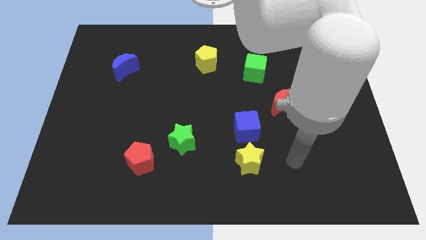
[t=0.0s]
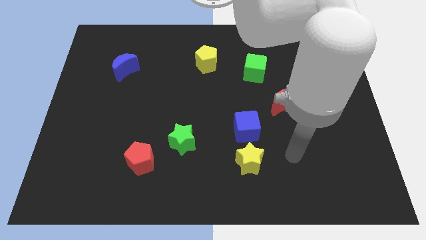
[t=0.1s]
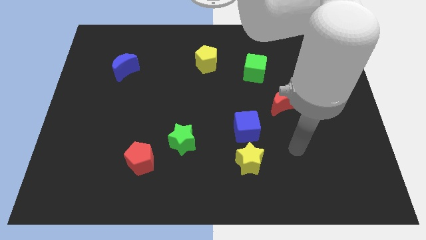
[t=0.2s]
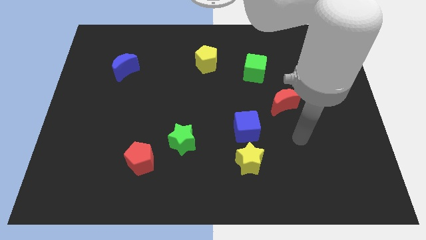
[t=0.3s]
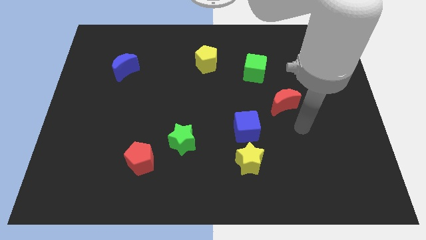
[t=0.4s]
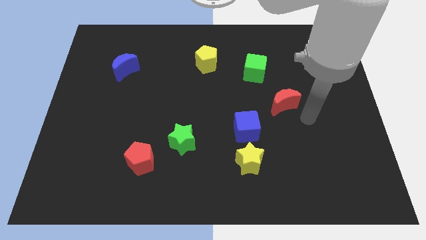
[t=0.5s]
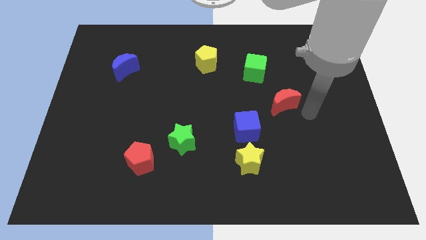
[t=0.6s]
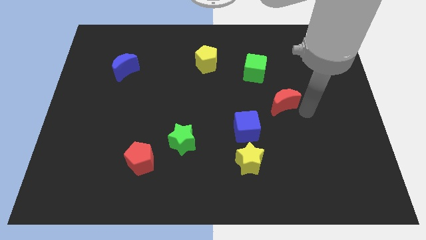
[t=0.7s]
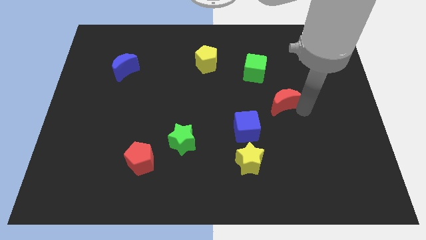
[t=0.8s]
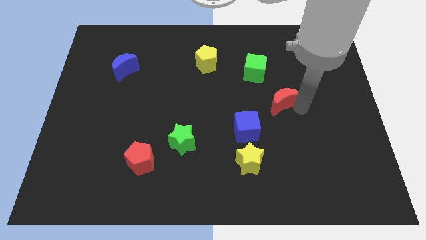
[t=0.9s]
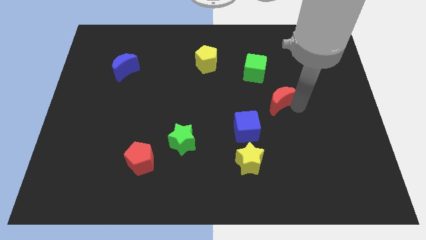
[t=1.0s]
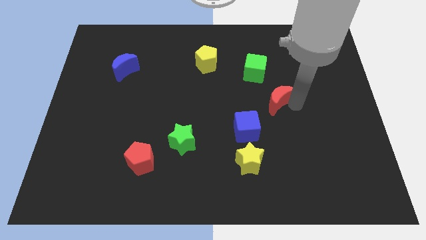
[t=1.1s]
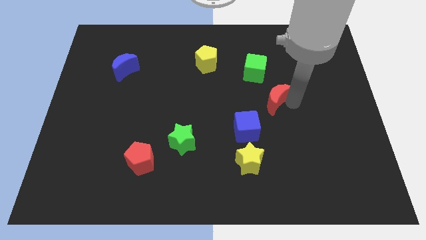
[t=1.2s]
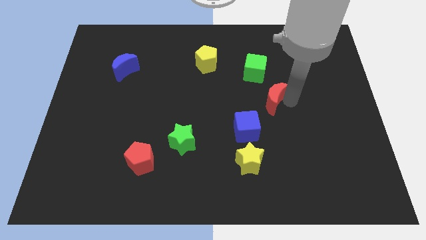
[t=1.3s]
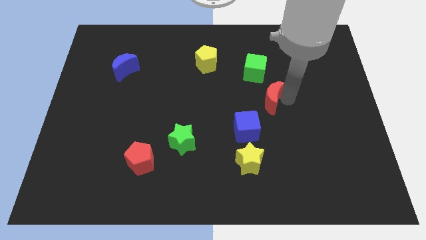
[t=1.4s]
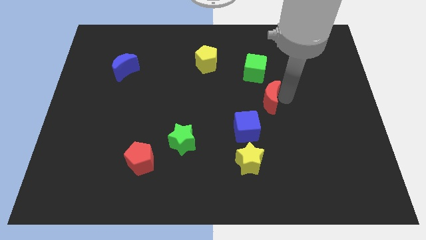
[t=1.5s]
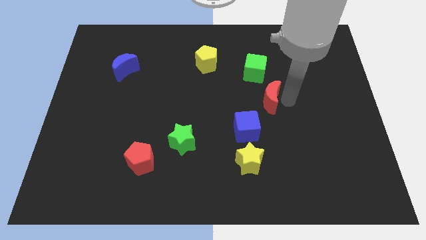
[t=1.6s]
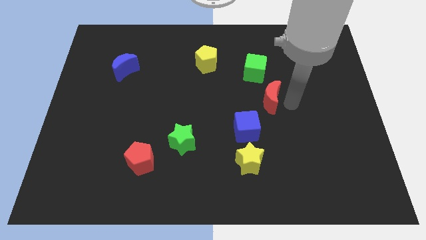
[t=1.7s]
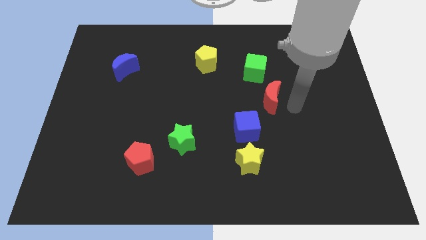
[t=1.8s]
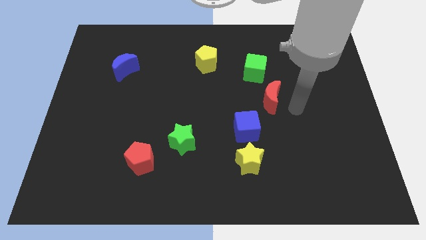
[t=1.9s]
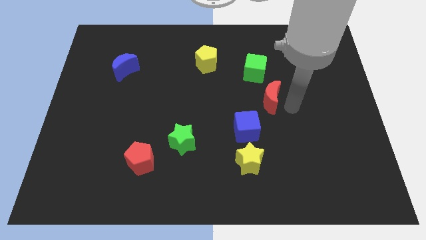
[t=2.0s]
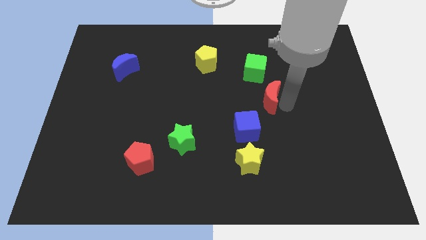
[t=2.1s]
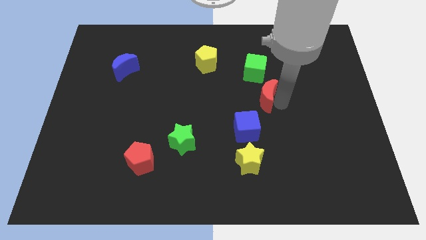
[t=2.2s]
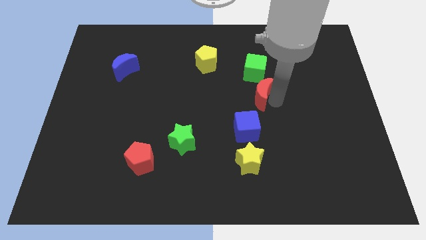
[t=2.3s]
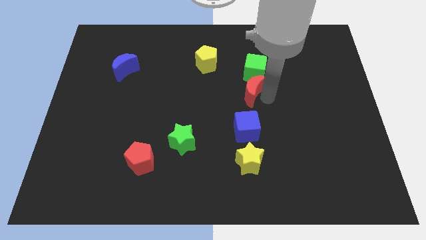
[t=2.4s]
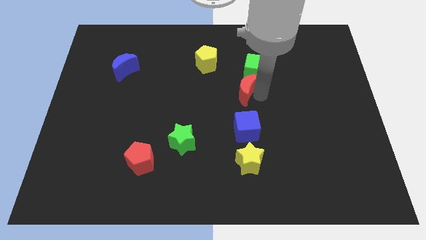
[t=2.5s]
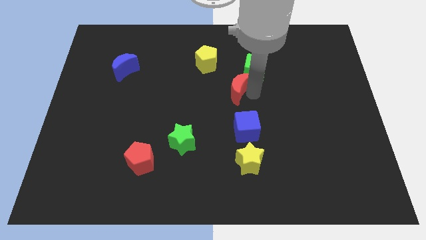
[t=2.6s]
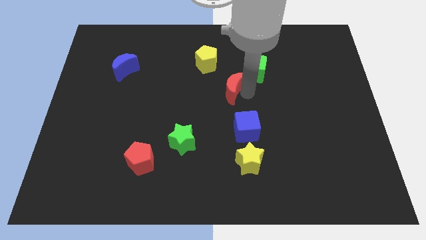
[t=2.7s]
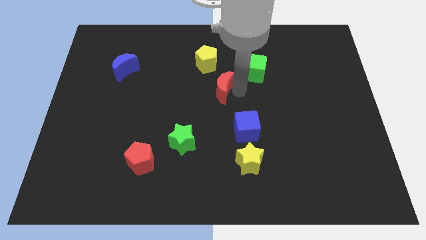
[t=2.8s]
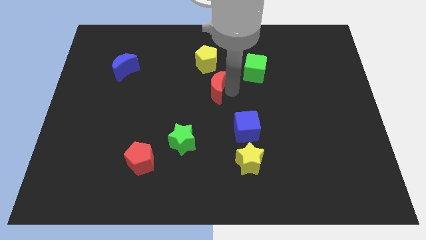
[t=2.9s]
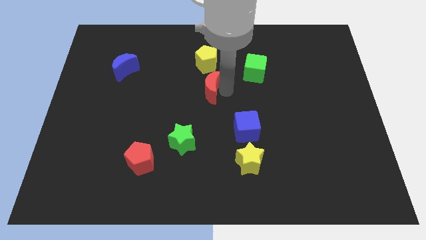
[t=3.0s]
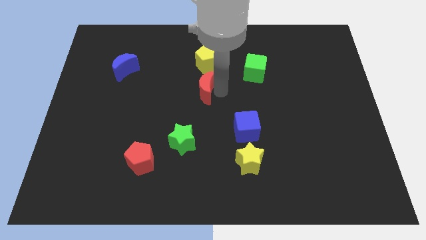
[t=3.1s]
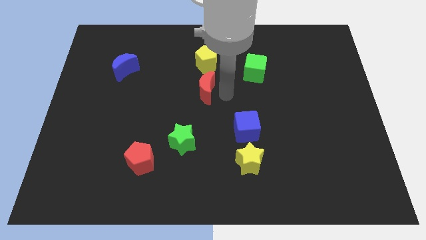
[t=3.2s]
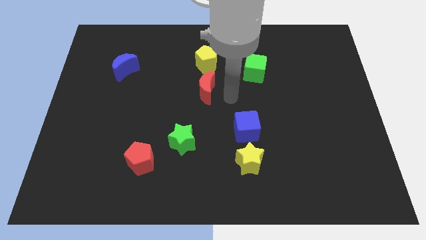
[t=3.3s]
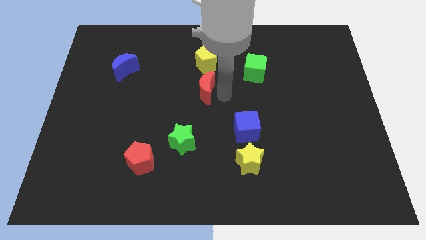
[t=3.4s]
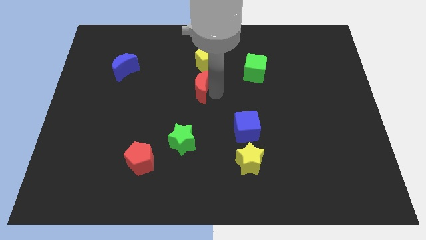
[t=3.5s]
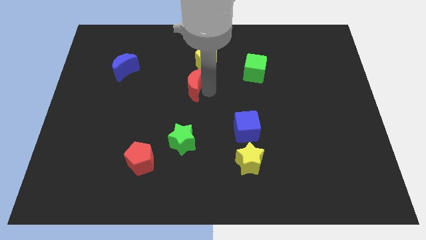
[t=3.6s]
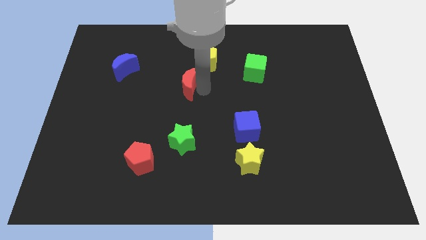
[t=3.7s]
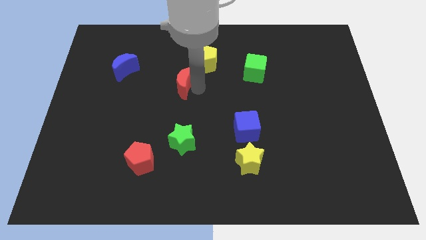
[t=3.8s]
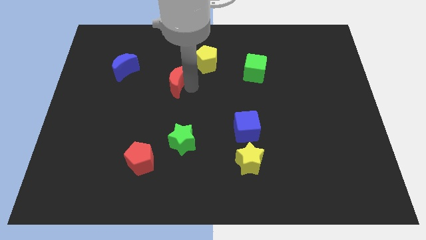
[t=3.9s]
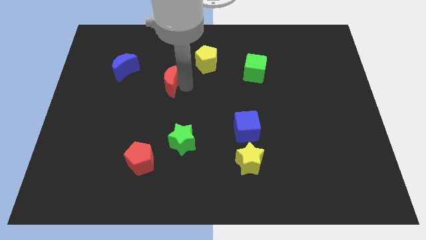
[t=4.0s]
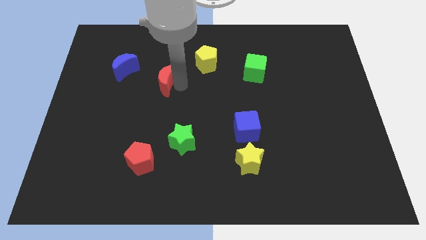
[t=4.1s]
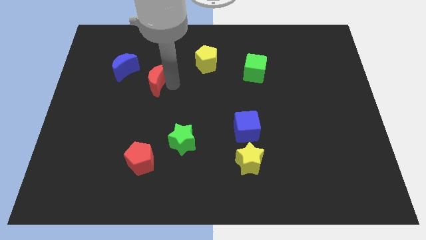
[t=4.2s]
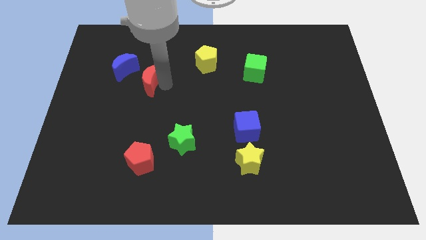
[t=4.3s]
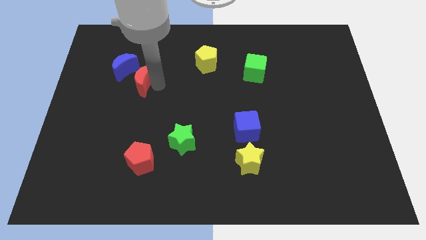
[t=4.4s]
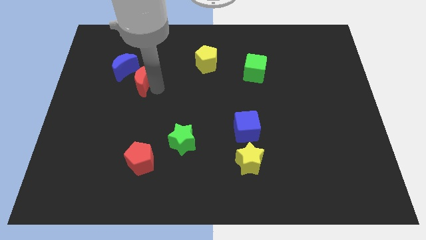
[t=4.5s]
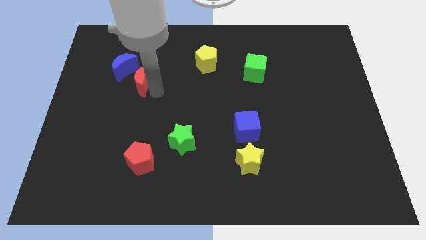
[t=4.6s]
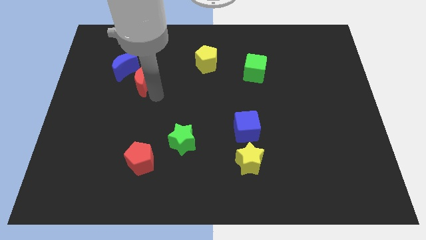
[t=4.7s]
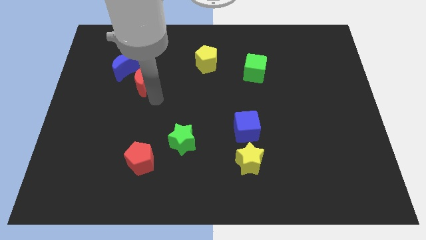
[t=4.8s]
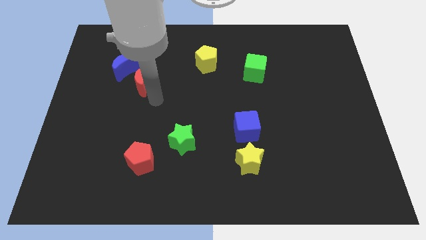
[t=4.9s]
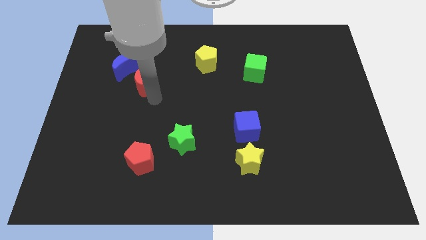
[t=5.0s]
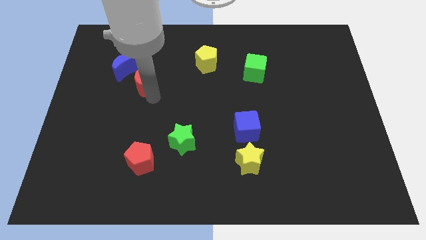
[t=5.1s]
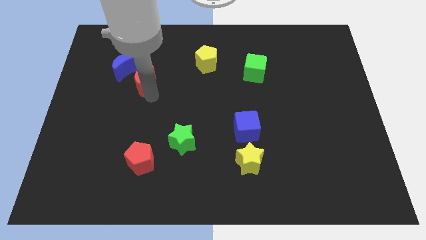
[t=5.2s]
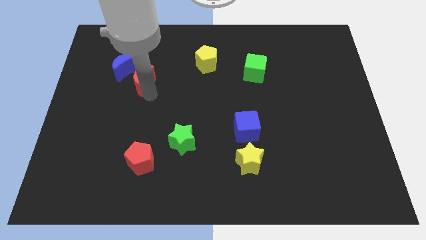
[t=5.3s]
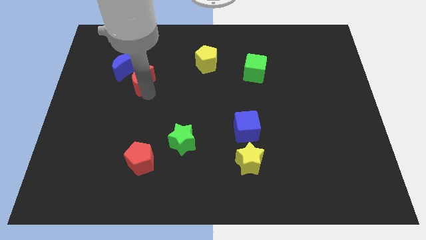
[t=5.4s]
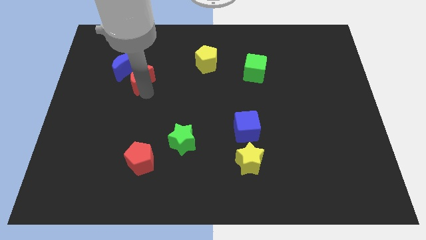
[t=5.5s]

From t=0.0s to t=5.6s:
put the red moon towards the blue moon

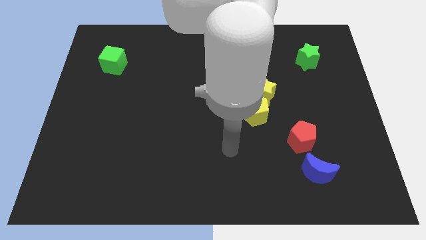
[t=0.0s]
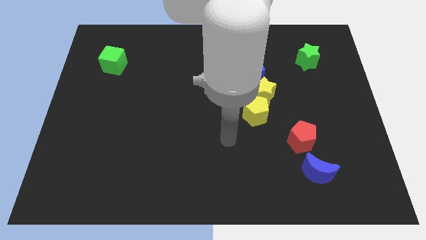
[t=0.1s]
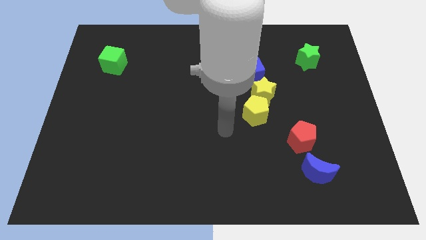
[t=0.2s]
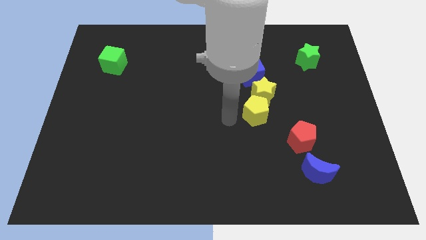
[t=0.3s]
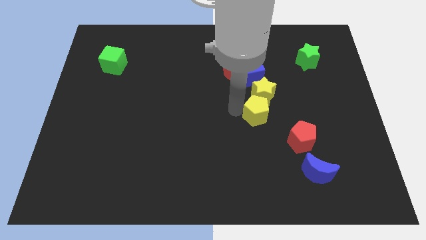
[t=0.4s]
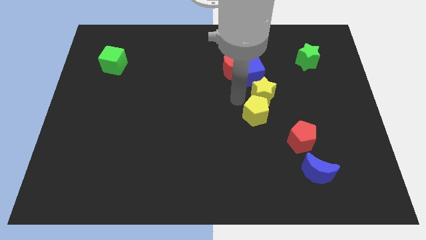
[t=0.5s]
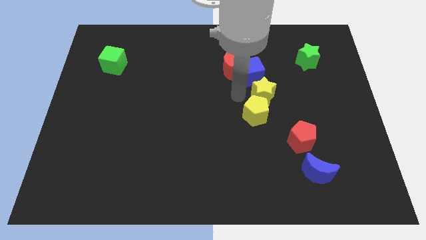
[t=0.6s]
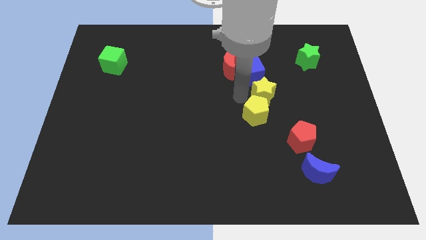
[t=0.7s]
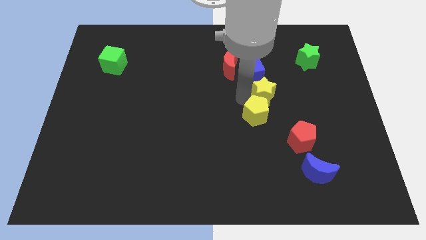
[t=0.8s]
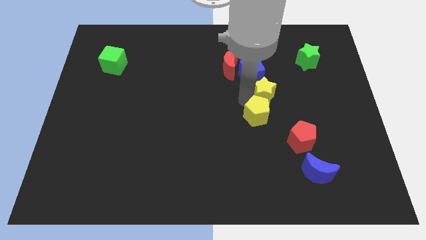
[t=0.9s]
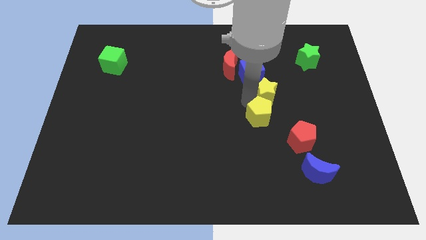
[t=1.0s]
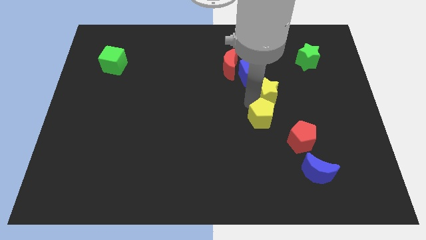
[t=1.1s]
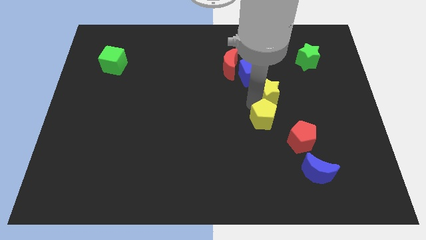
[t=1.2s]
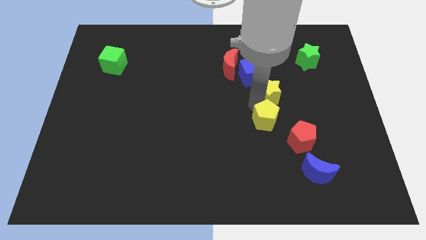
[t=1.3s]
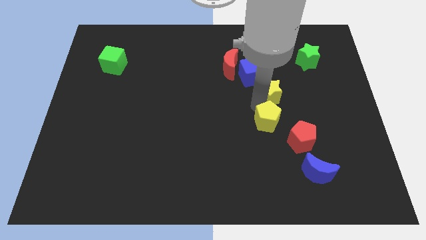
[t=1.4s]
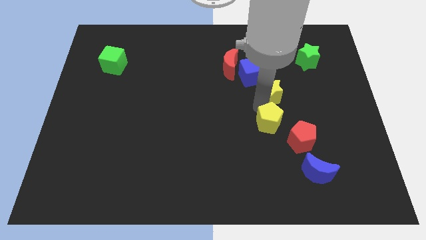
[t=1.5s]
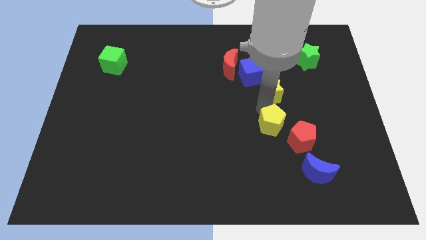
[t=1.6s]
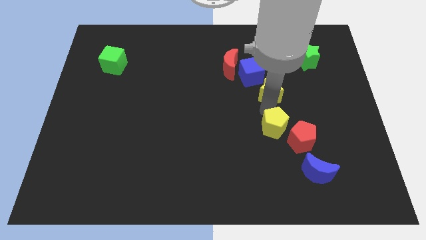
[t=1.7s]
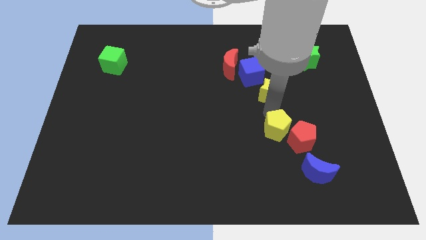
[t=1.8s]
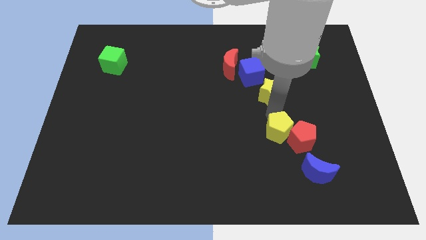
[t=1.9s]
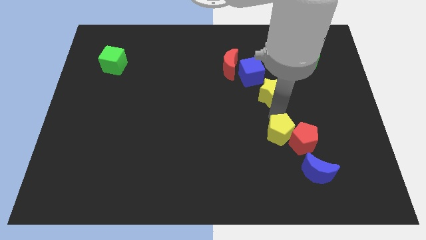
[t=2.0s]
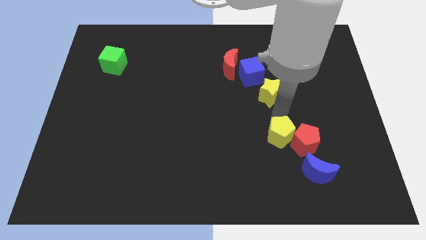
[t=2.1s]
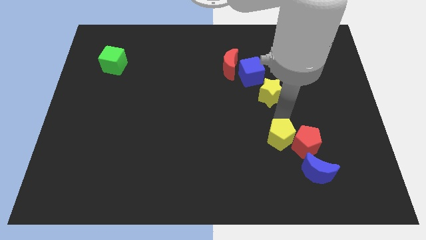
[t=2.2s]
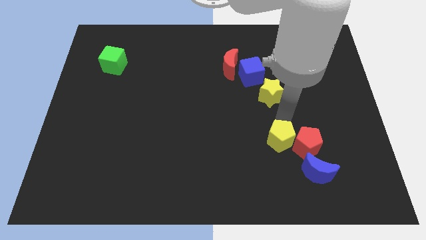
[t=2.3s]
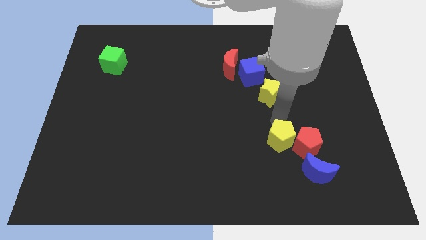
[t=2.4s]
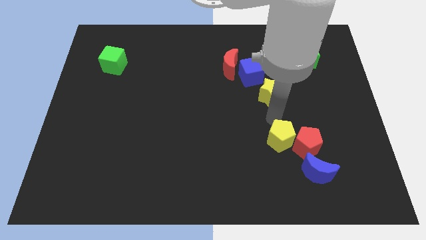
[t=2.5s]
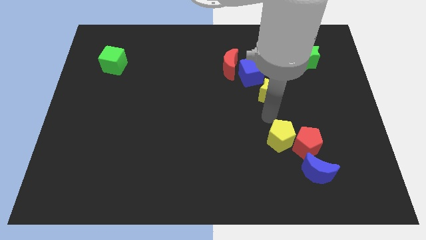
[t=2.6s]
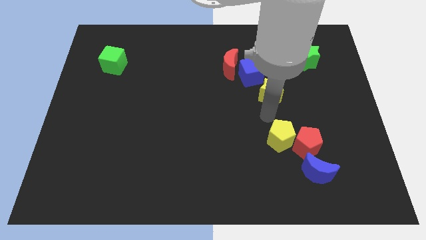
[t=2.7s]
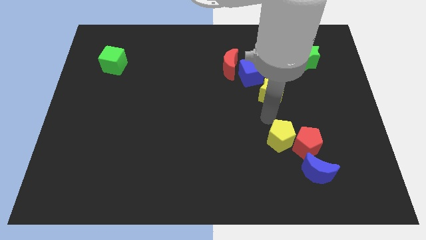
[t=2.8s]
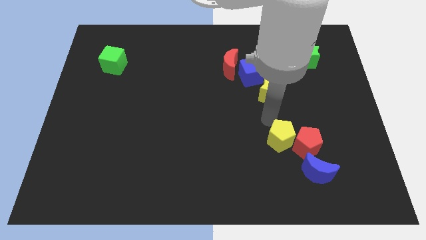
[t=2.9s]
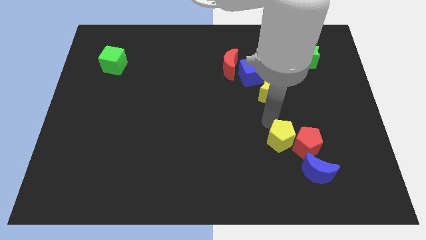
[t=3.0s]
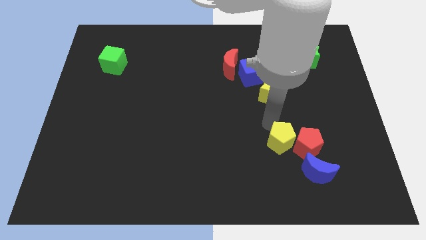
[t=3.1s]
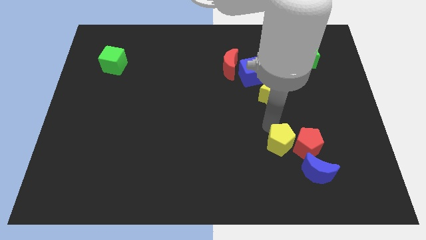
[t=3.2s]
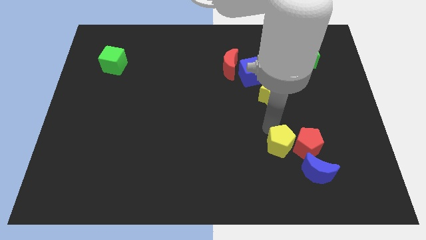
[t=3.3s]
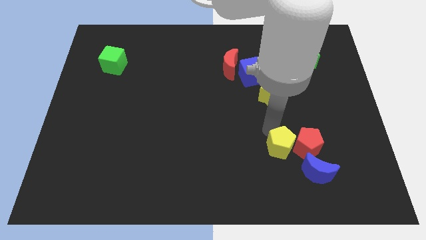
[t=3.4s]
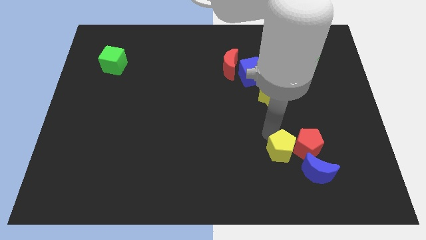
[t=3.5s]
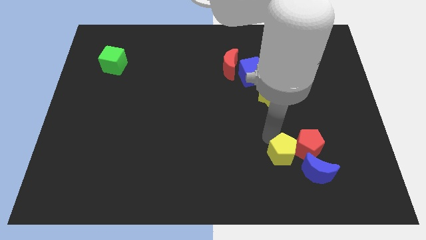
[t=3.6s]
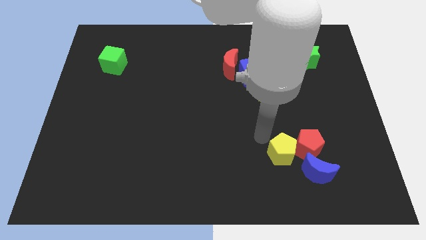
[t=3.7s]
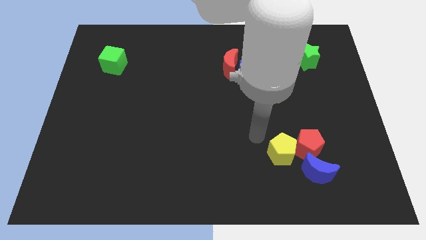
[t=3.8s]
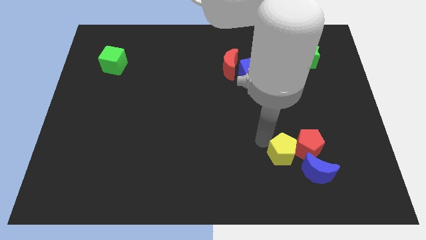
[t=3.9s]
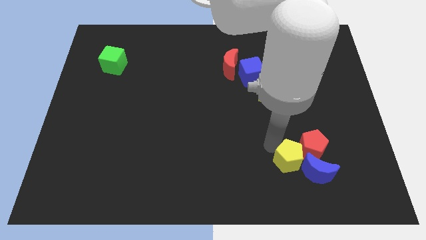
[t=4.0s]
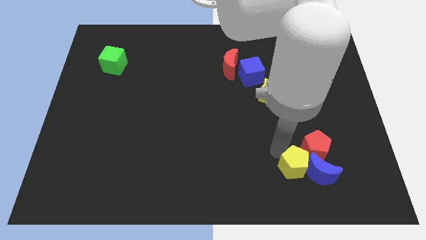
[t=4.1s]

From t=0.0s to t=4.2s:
move the yellow pentagon towards the blue moon
